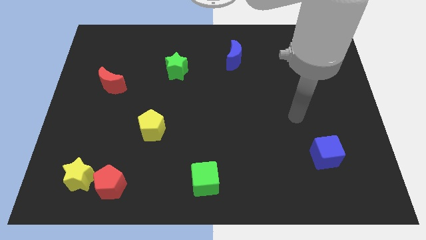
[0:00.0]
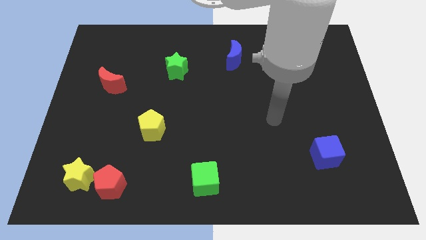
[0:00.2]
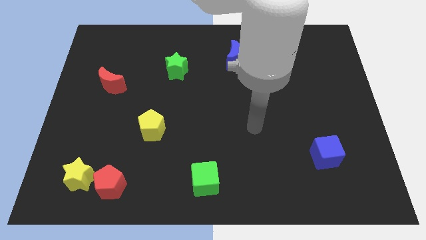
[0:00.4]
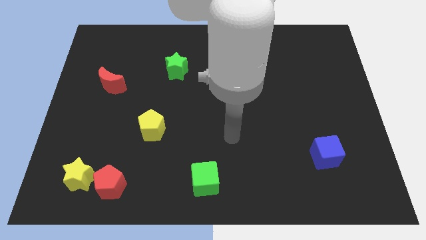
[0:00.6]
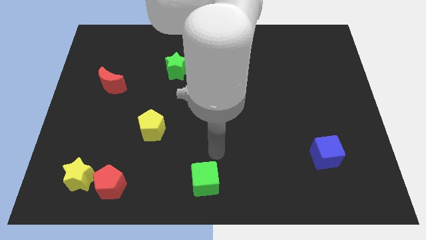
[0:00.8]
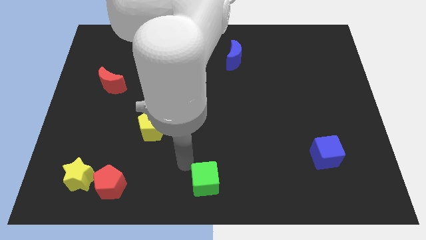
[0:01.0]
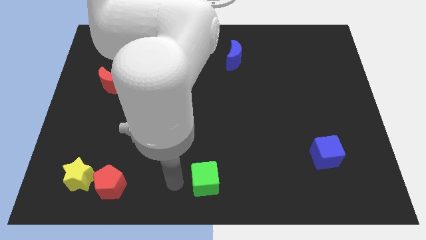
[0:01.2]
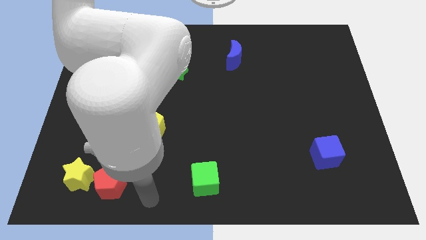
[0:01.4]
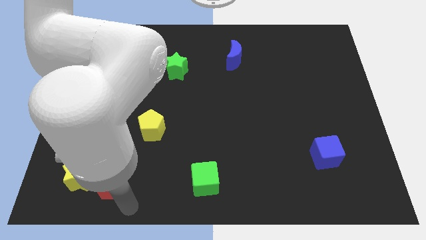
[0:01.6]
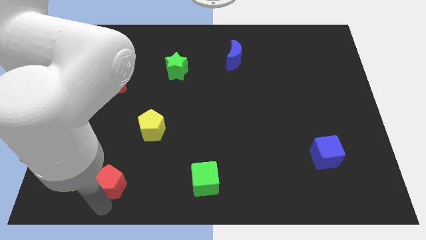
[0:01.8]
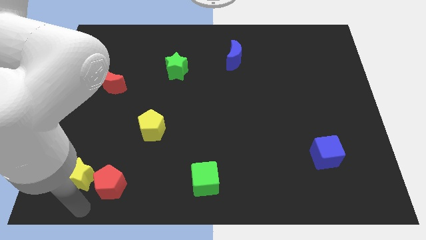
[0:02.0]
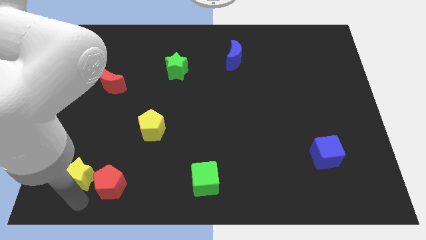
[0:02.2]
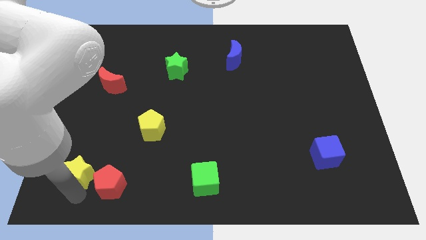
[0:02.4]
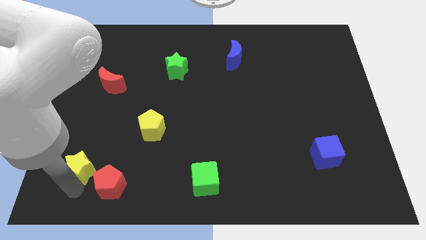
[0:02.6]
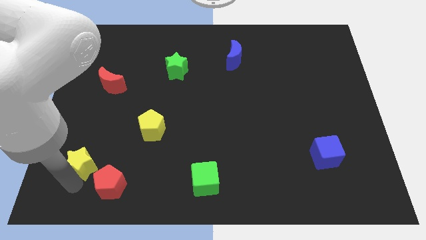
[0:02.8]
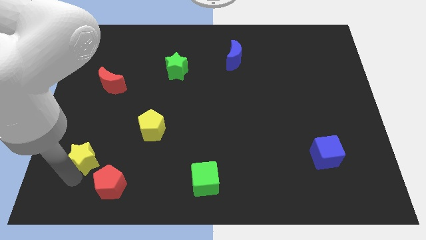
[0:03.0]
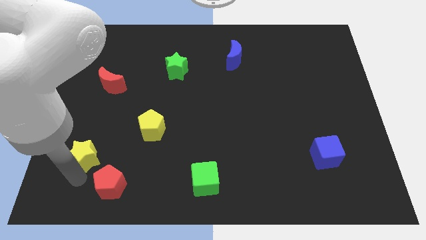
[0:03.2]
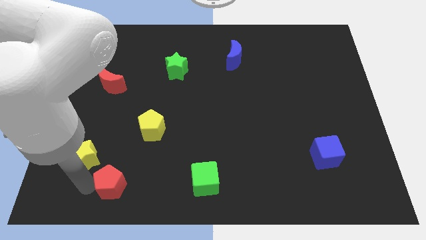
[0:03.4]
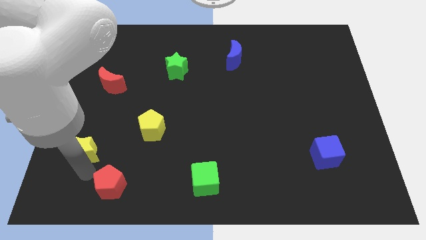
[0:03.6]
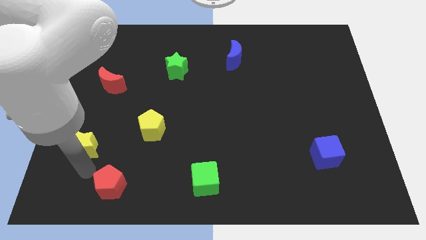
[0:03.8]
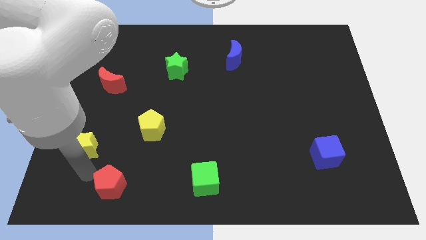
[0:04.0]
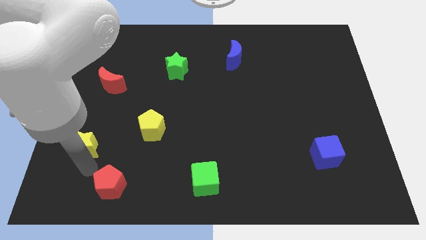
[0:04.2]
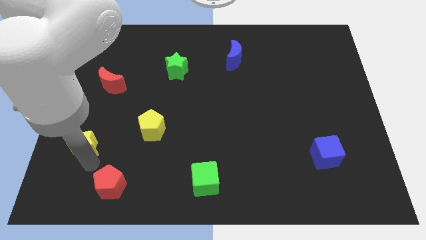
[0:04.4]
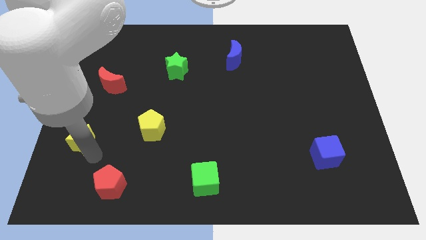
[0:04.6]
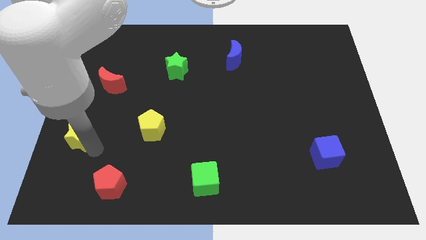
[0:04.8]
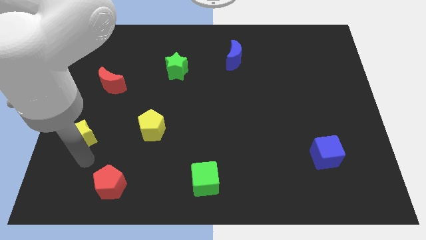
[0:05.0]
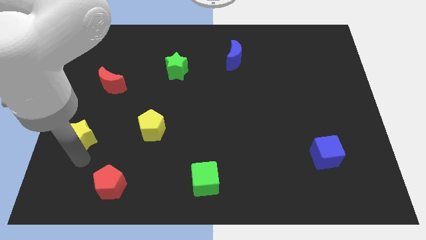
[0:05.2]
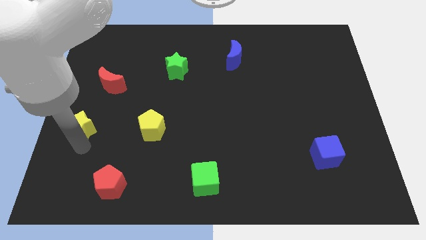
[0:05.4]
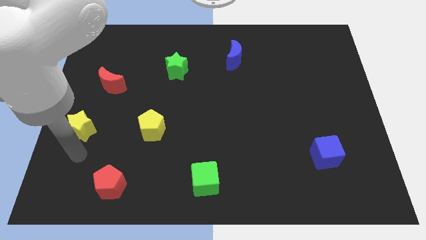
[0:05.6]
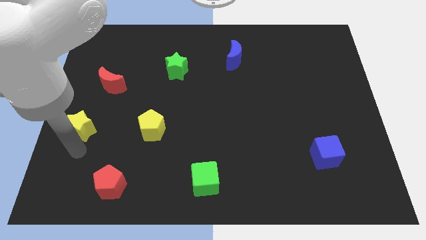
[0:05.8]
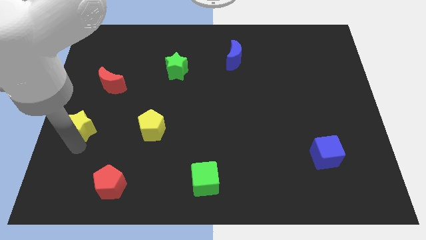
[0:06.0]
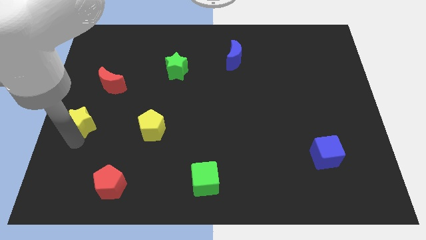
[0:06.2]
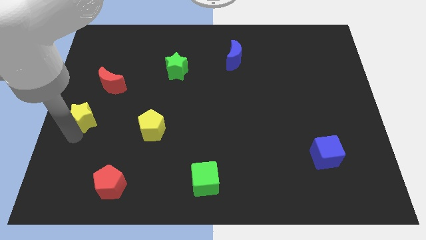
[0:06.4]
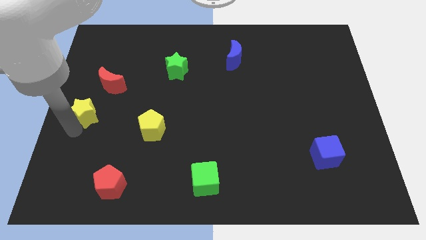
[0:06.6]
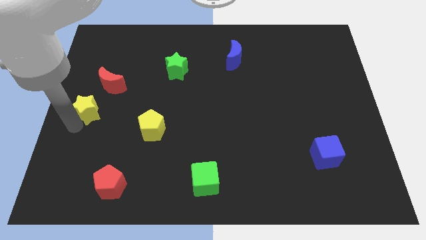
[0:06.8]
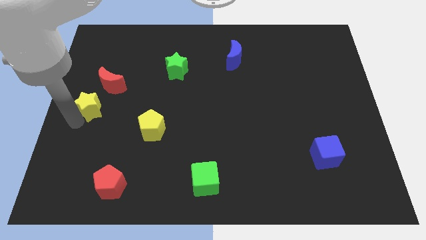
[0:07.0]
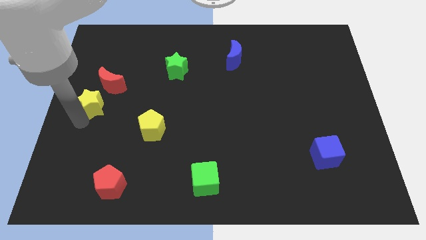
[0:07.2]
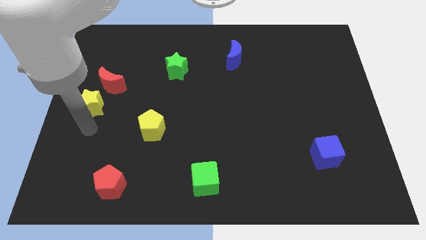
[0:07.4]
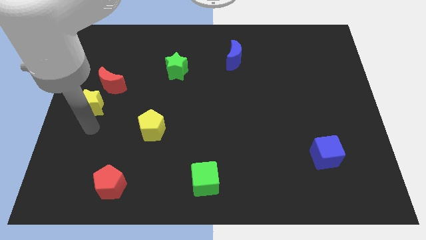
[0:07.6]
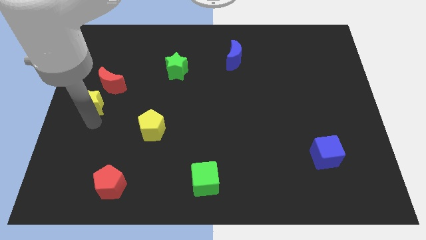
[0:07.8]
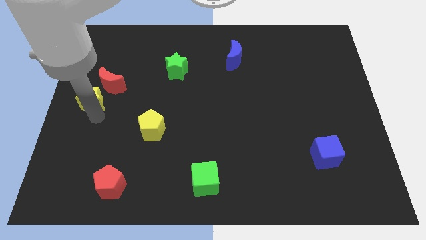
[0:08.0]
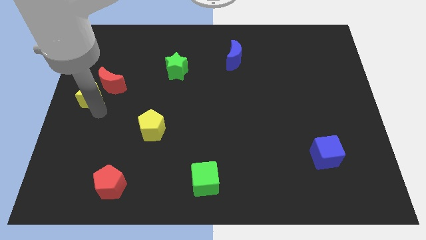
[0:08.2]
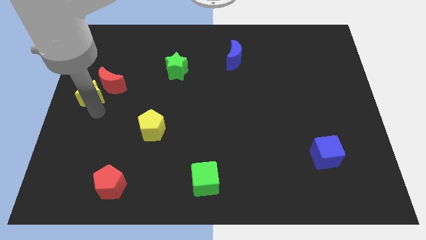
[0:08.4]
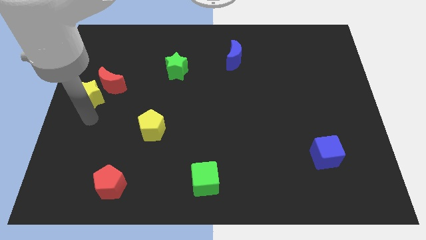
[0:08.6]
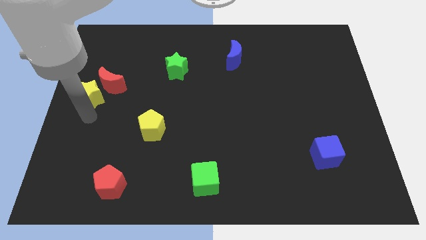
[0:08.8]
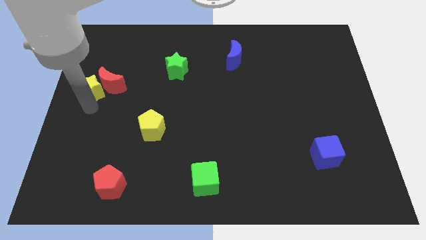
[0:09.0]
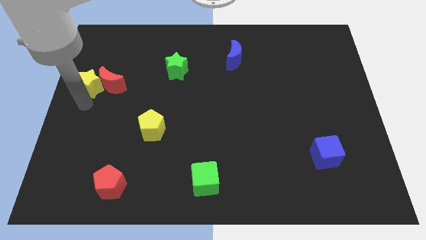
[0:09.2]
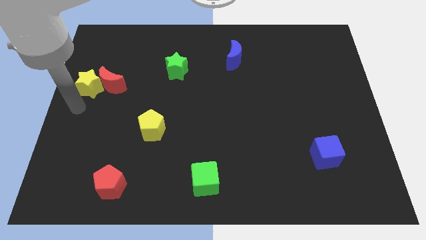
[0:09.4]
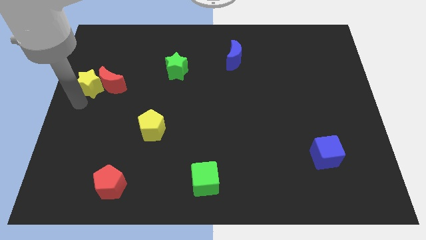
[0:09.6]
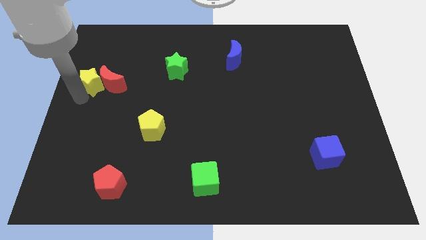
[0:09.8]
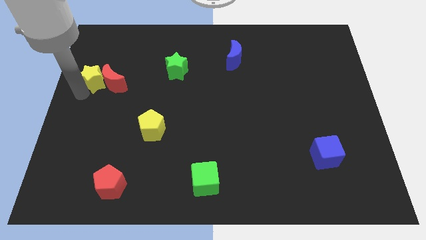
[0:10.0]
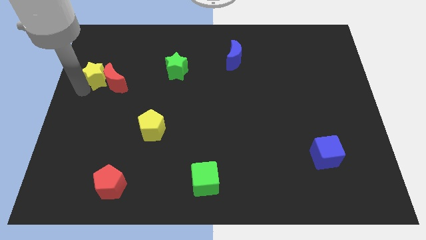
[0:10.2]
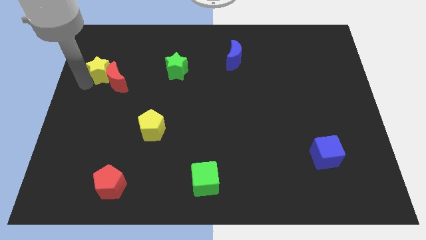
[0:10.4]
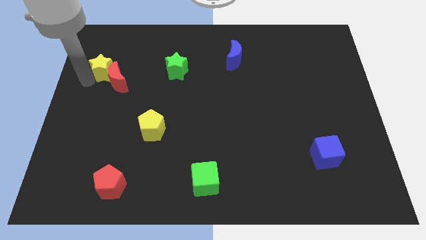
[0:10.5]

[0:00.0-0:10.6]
slide the yellow star to the top of the red moon
